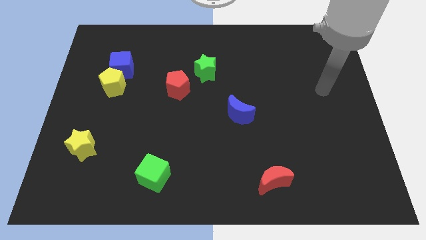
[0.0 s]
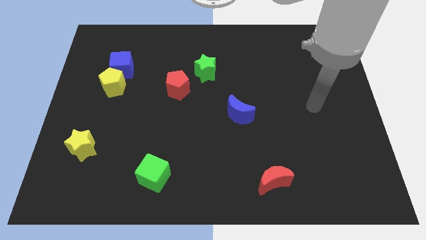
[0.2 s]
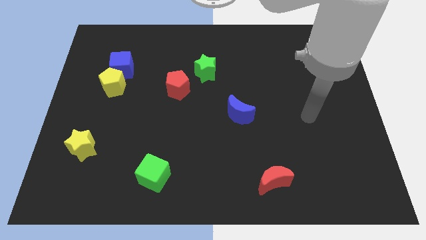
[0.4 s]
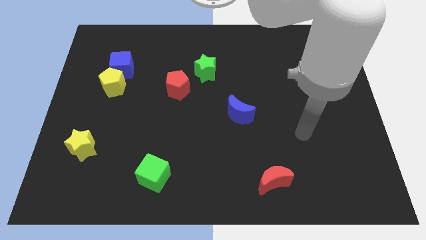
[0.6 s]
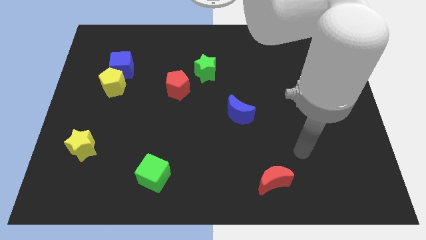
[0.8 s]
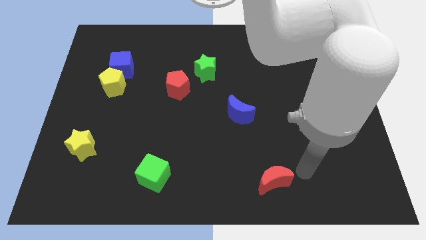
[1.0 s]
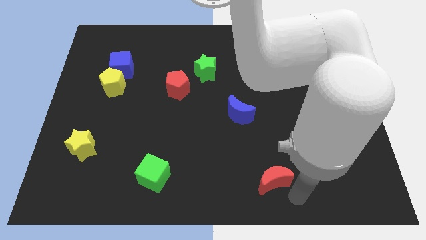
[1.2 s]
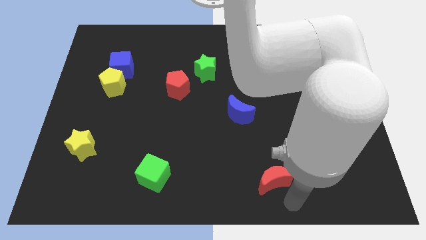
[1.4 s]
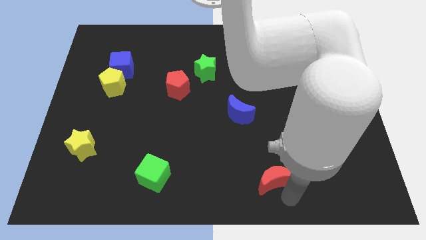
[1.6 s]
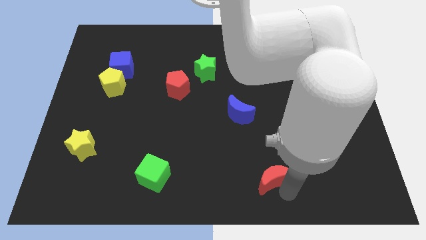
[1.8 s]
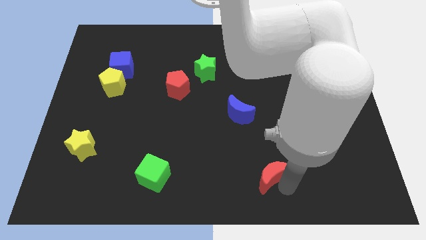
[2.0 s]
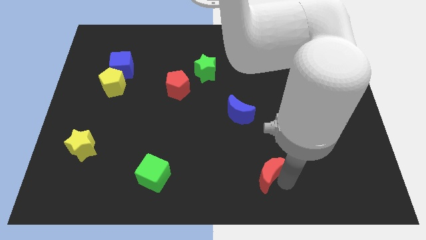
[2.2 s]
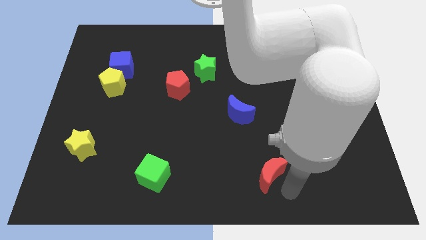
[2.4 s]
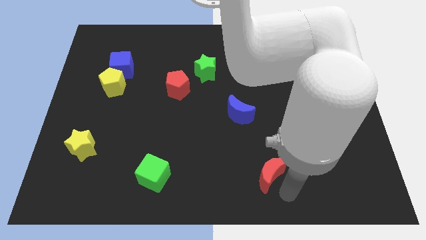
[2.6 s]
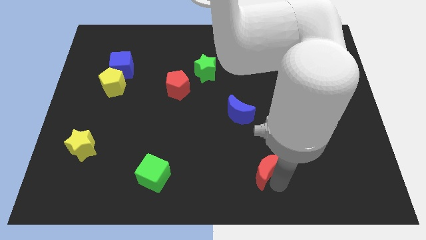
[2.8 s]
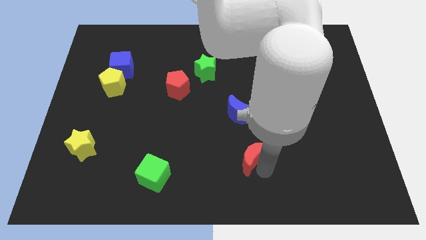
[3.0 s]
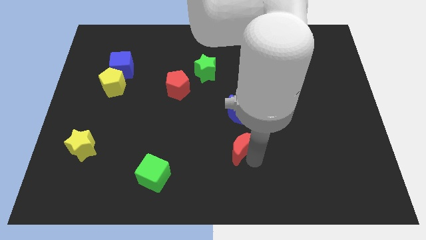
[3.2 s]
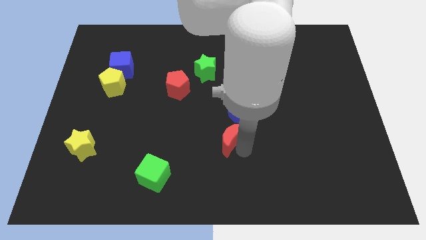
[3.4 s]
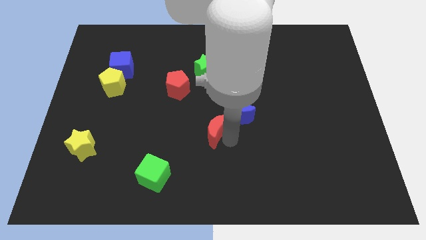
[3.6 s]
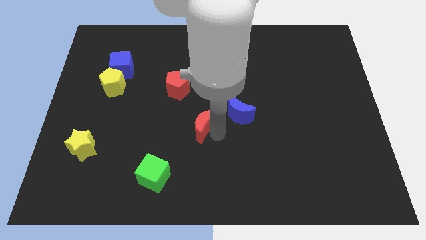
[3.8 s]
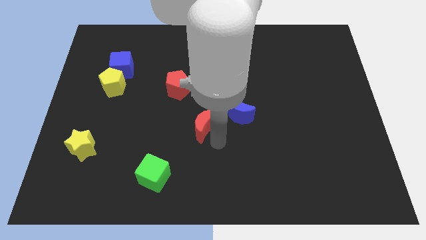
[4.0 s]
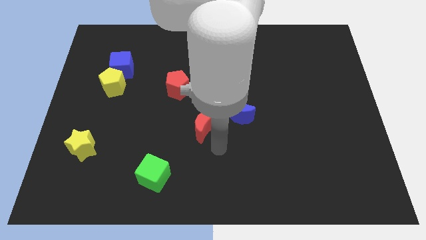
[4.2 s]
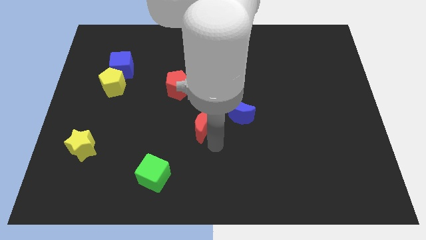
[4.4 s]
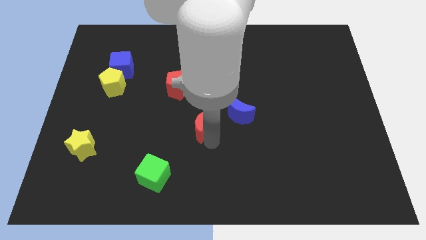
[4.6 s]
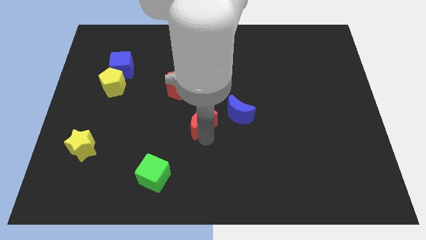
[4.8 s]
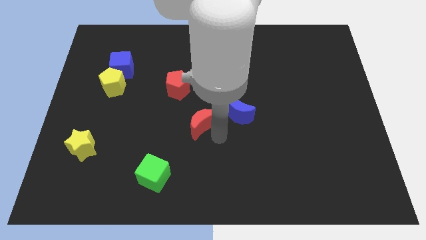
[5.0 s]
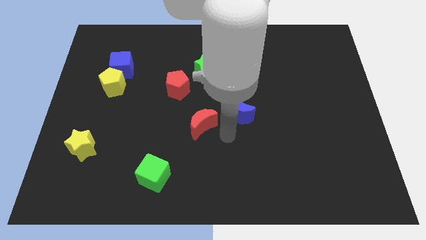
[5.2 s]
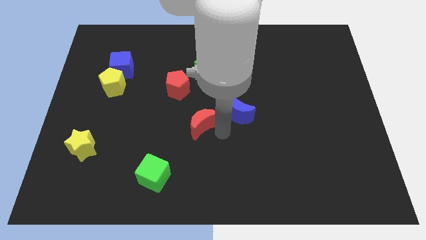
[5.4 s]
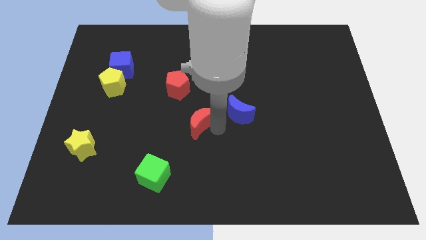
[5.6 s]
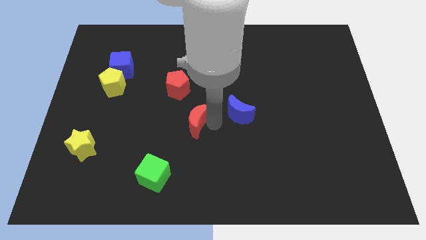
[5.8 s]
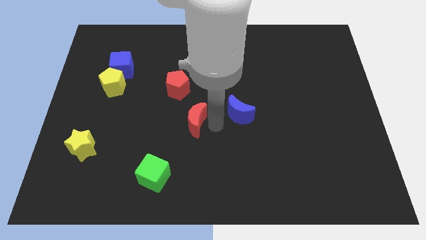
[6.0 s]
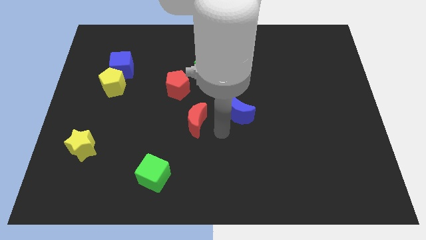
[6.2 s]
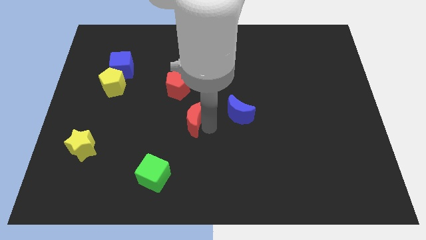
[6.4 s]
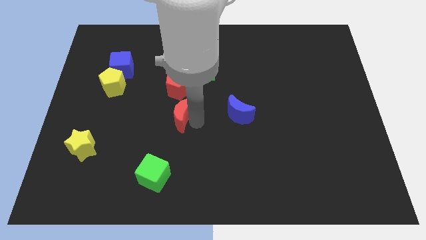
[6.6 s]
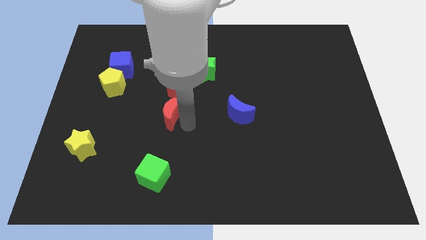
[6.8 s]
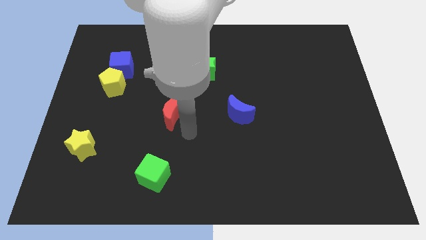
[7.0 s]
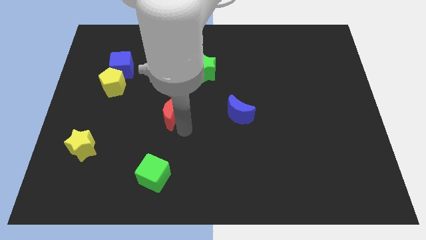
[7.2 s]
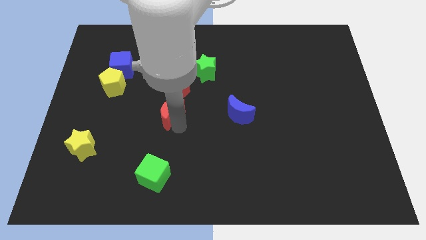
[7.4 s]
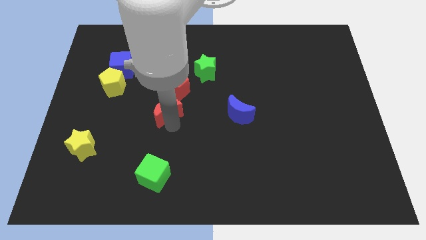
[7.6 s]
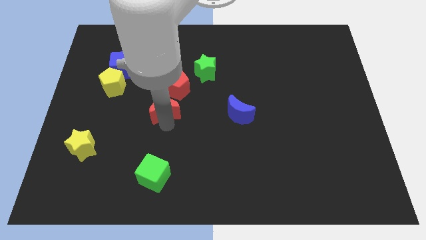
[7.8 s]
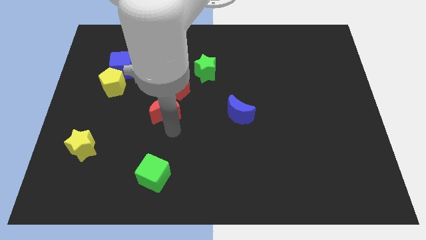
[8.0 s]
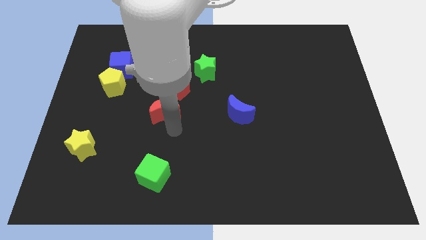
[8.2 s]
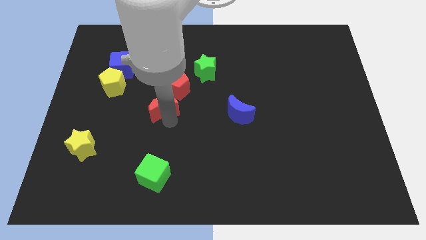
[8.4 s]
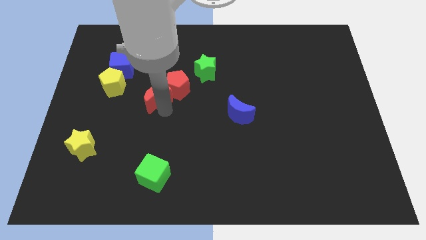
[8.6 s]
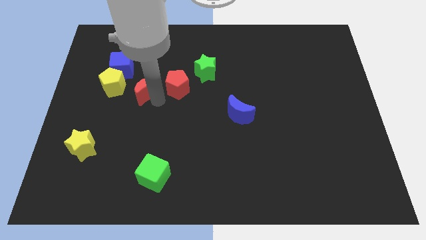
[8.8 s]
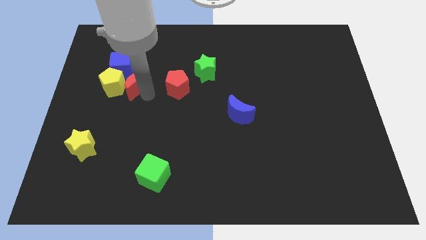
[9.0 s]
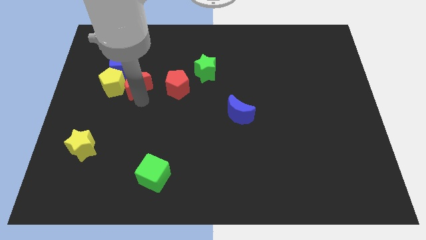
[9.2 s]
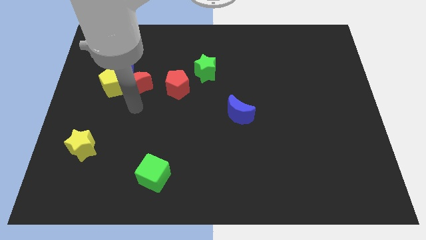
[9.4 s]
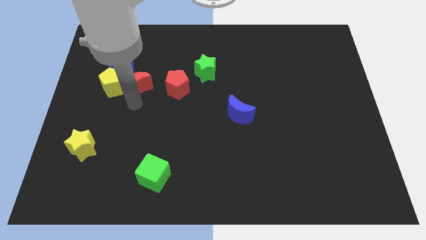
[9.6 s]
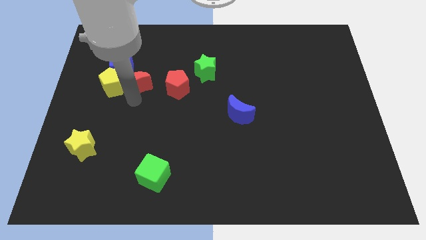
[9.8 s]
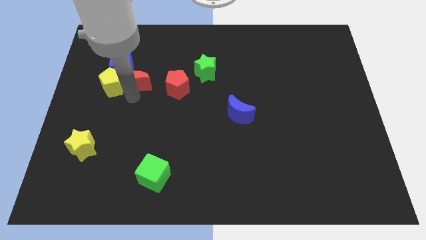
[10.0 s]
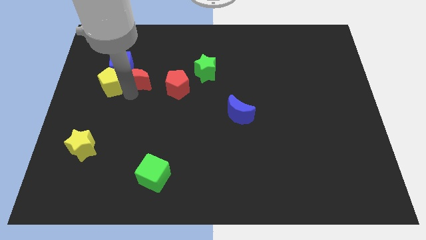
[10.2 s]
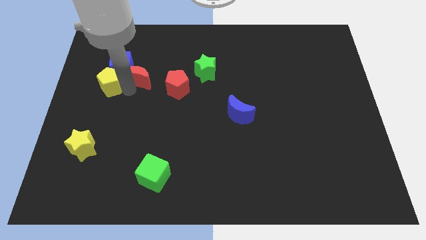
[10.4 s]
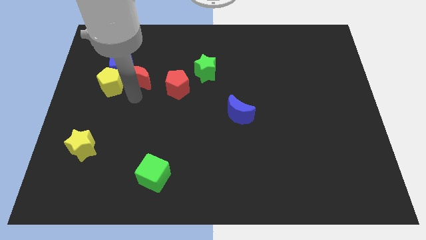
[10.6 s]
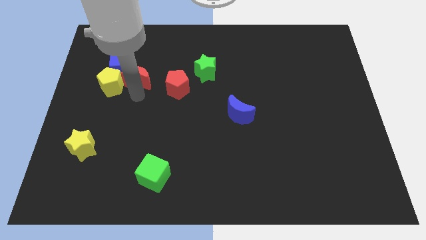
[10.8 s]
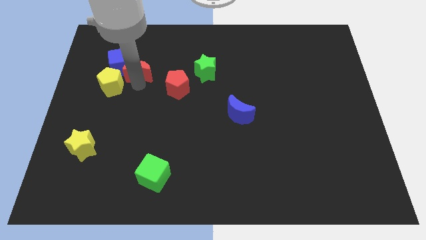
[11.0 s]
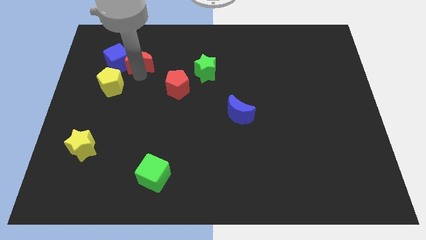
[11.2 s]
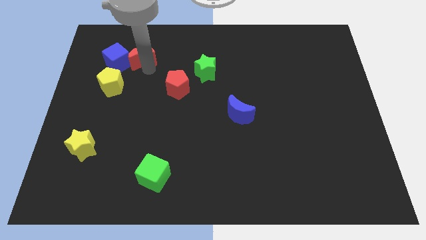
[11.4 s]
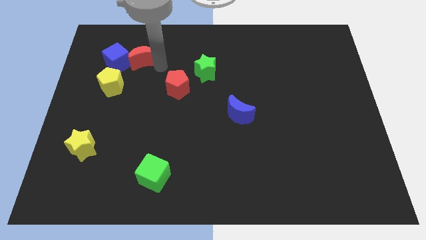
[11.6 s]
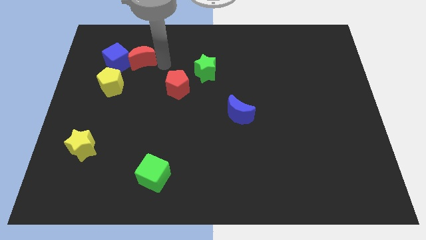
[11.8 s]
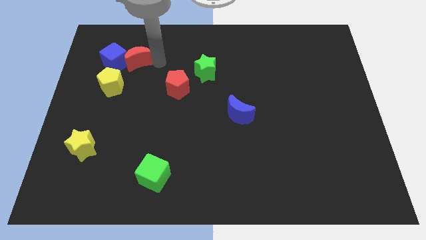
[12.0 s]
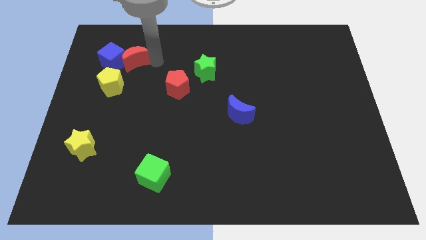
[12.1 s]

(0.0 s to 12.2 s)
slide the red moon to the top of the yellow pentagon
